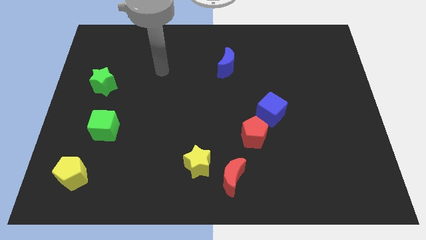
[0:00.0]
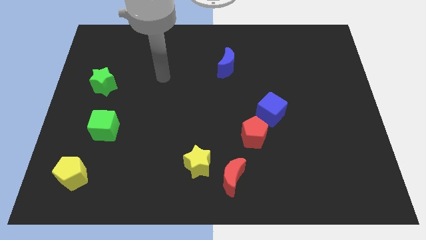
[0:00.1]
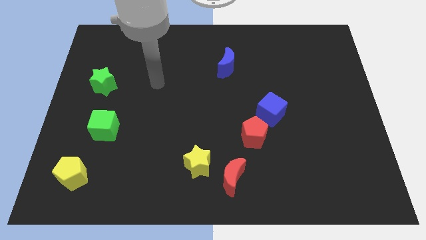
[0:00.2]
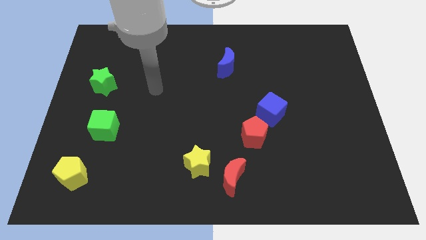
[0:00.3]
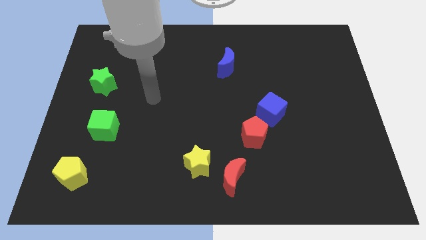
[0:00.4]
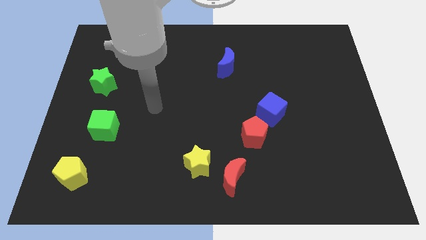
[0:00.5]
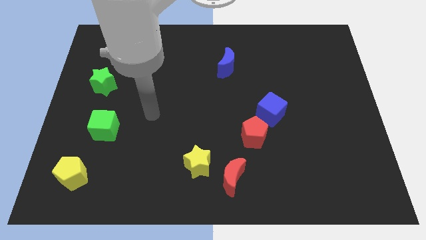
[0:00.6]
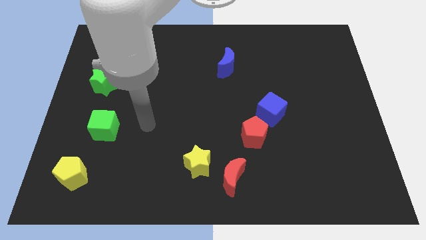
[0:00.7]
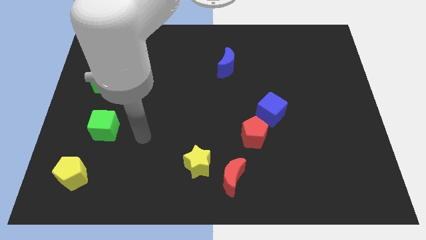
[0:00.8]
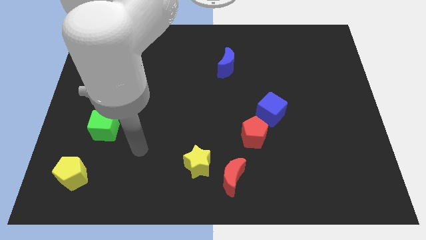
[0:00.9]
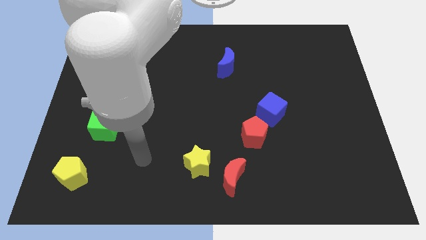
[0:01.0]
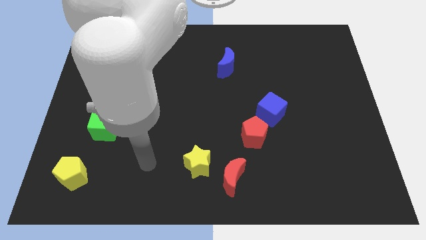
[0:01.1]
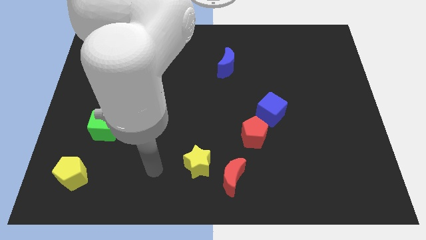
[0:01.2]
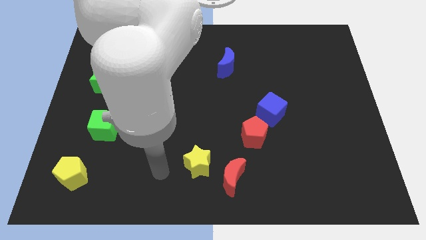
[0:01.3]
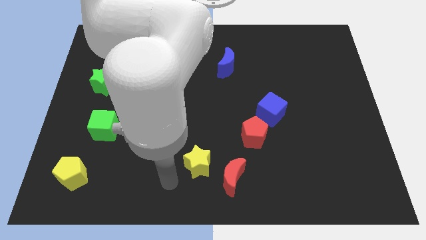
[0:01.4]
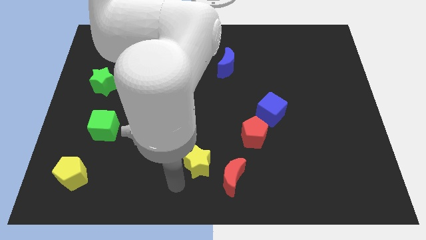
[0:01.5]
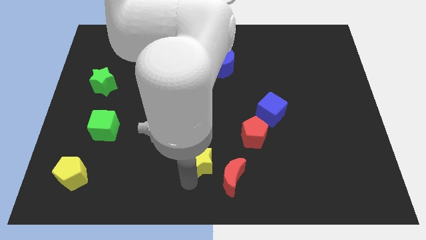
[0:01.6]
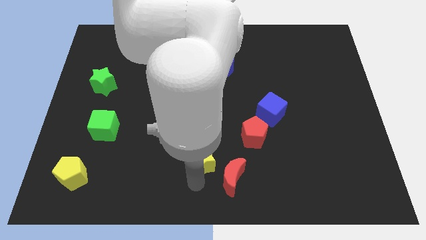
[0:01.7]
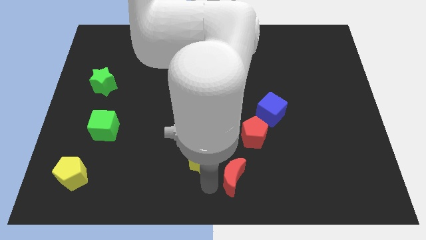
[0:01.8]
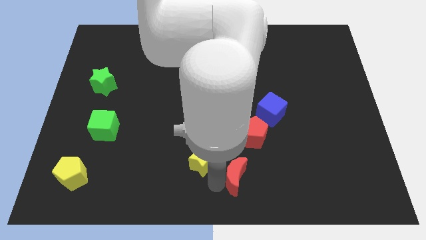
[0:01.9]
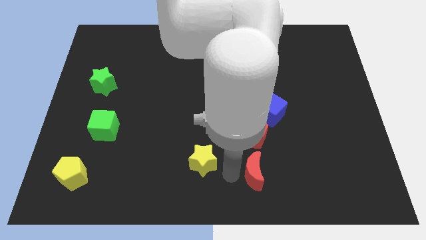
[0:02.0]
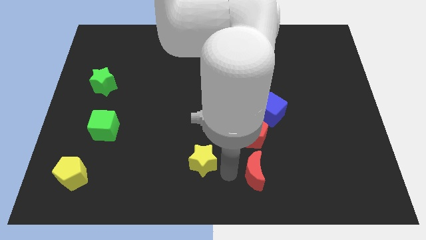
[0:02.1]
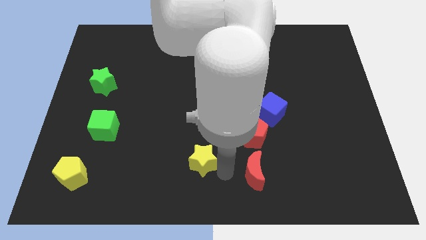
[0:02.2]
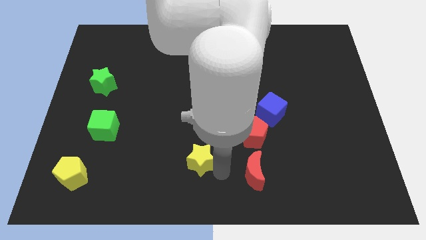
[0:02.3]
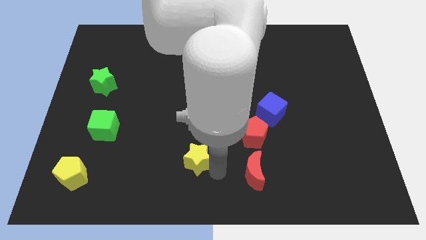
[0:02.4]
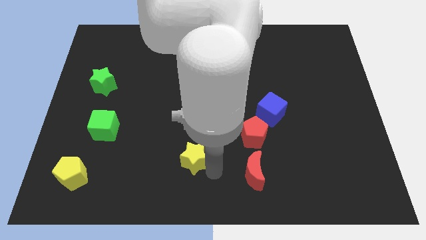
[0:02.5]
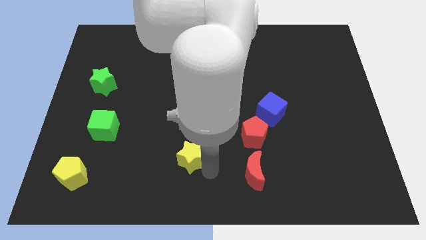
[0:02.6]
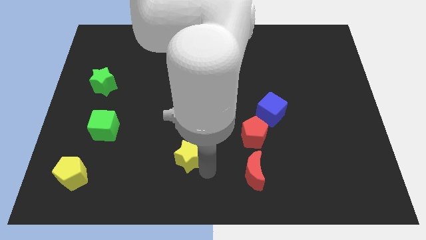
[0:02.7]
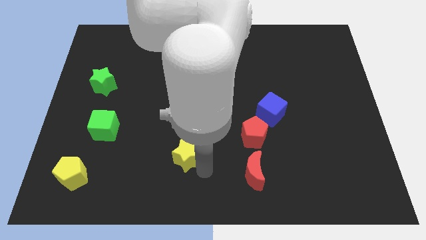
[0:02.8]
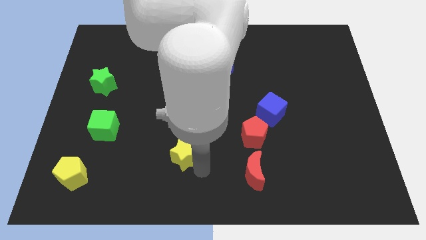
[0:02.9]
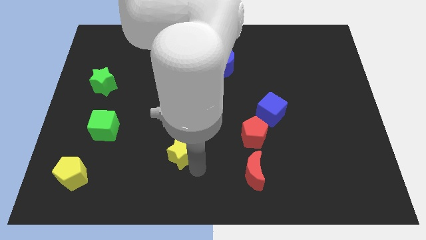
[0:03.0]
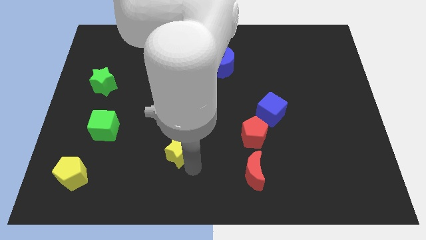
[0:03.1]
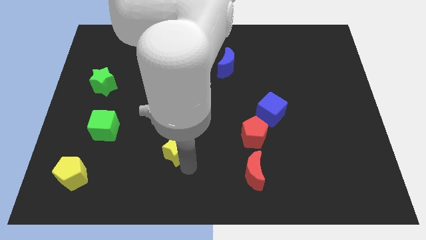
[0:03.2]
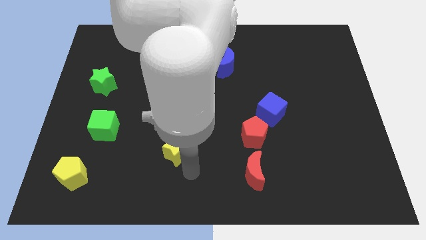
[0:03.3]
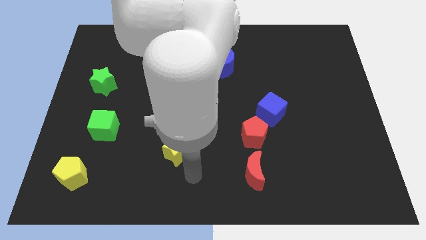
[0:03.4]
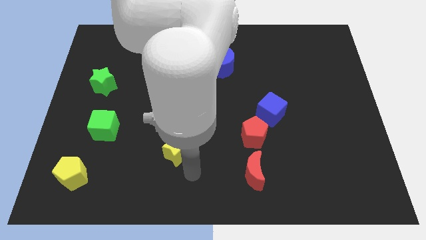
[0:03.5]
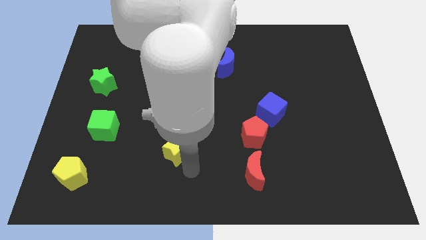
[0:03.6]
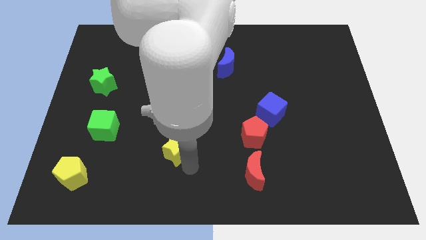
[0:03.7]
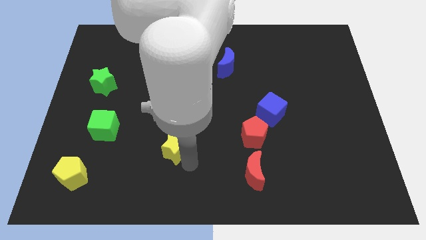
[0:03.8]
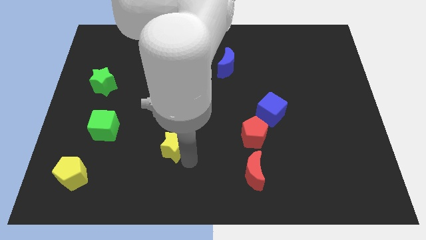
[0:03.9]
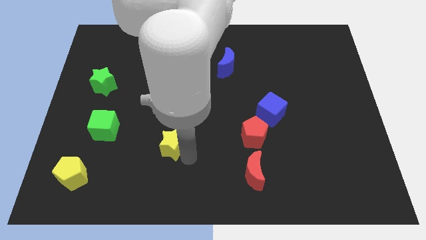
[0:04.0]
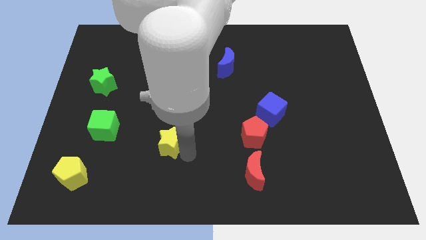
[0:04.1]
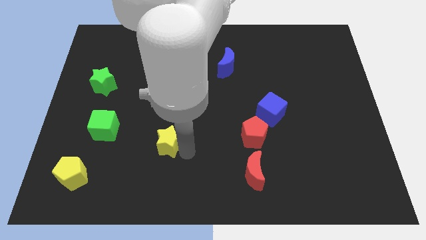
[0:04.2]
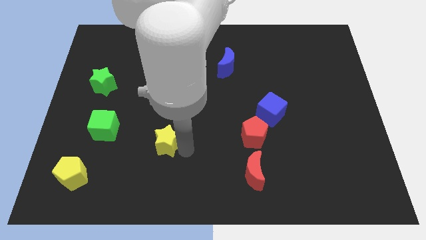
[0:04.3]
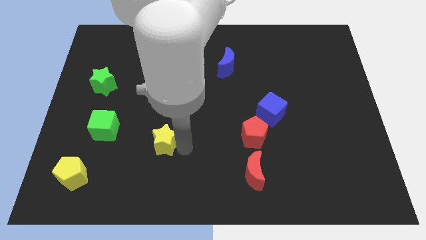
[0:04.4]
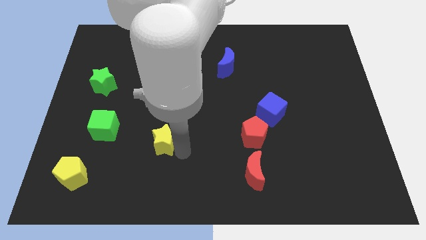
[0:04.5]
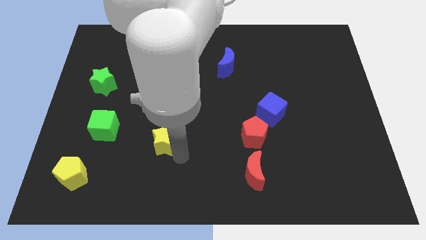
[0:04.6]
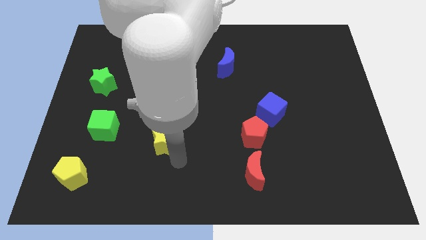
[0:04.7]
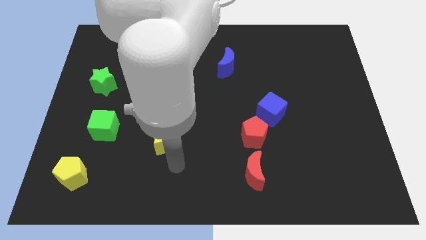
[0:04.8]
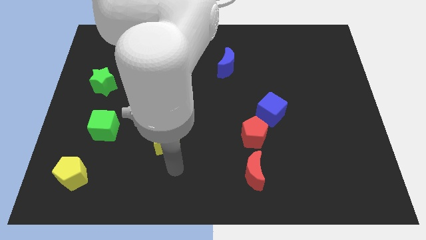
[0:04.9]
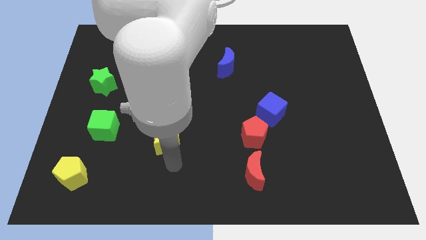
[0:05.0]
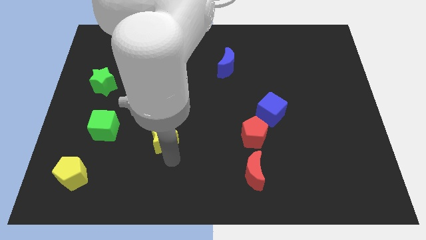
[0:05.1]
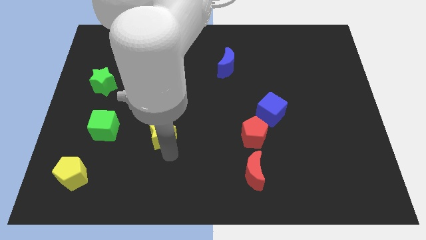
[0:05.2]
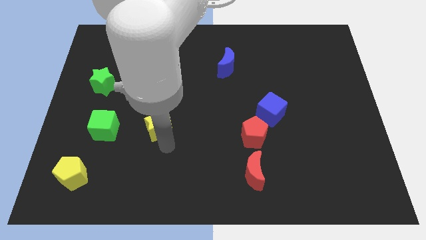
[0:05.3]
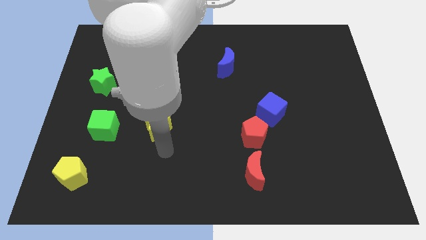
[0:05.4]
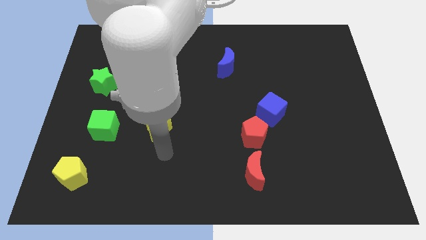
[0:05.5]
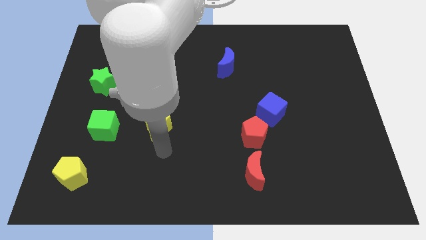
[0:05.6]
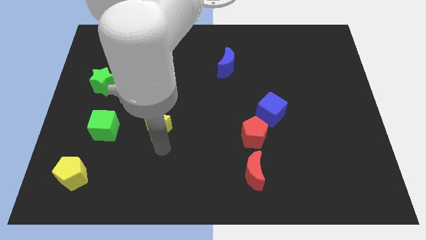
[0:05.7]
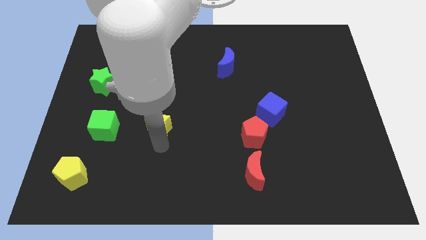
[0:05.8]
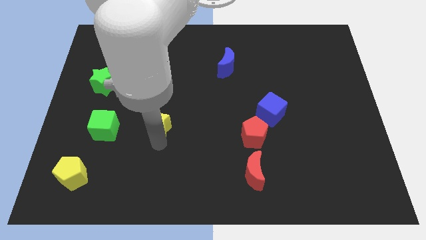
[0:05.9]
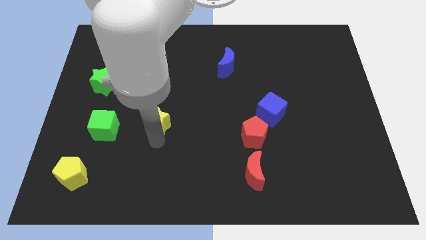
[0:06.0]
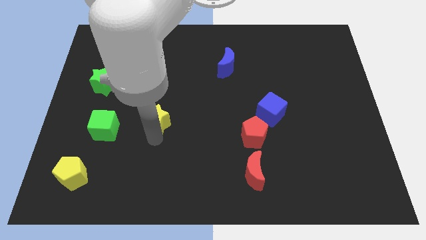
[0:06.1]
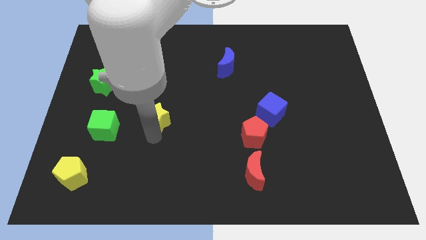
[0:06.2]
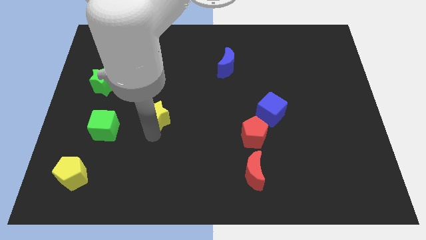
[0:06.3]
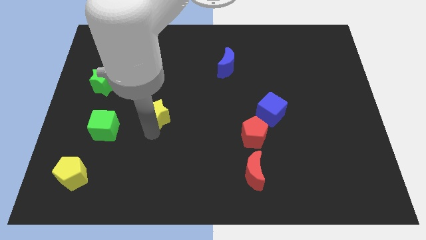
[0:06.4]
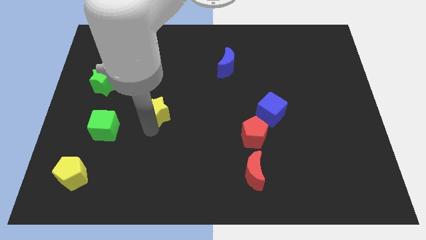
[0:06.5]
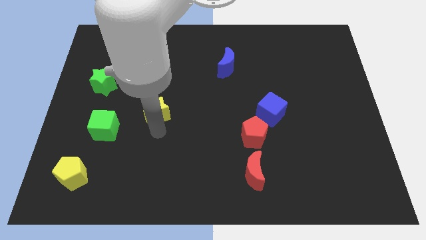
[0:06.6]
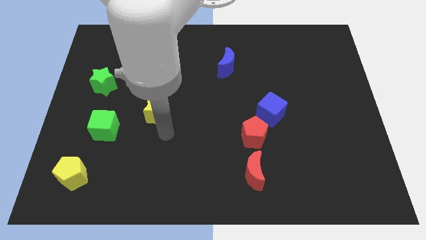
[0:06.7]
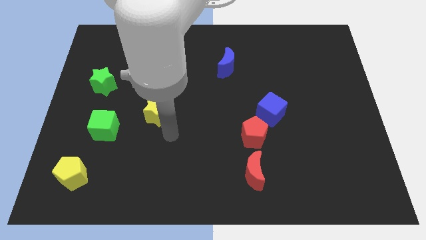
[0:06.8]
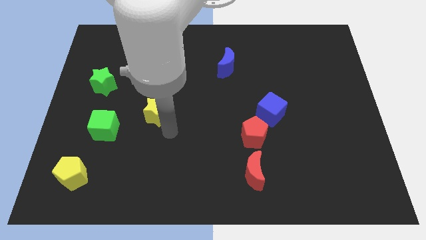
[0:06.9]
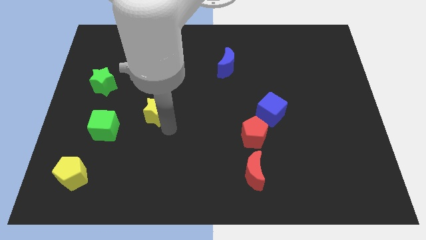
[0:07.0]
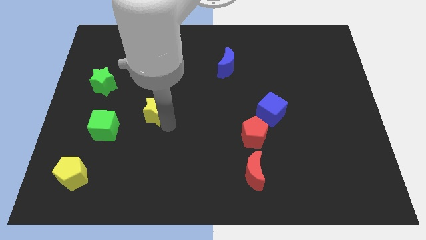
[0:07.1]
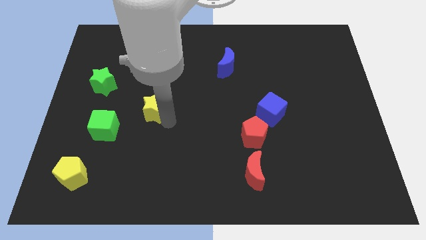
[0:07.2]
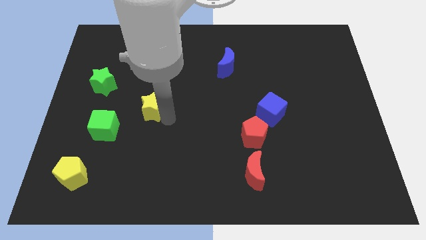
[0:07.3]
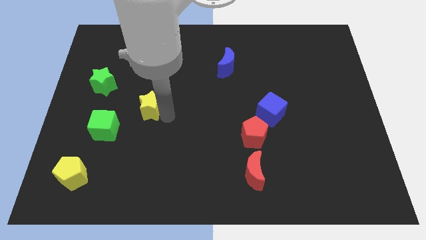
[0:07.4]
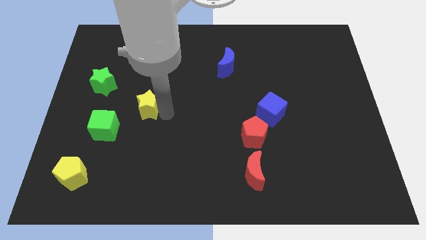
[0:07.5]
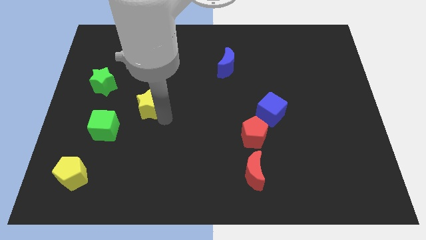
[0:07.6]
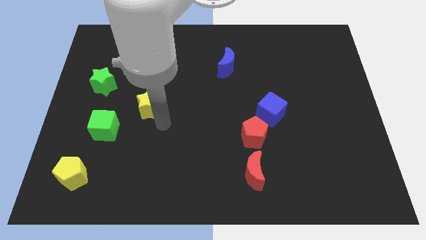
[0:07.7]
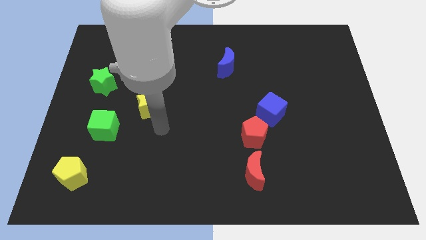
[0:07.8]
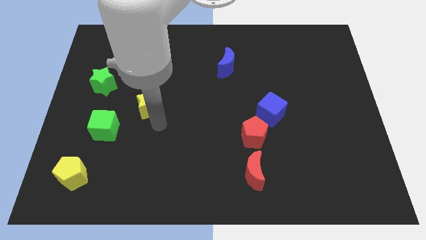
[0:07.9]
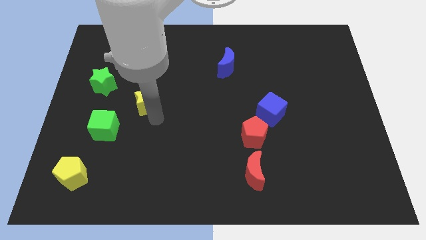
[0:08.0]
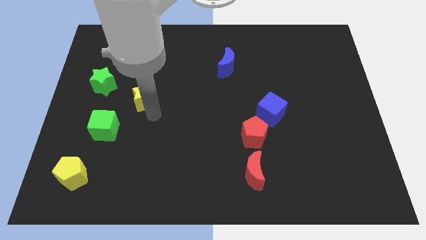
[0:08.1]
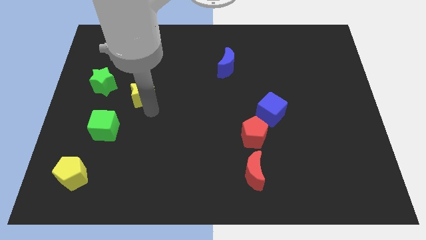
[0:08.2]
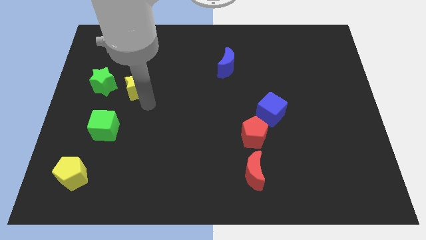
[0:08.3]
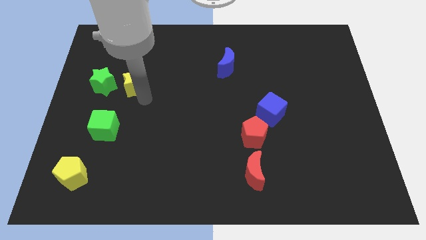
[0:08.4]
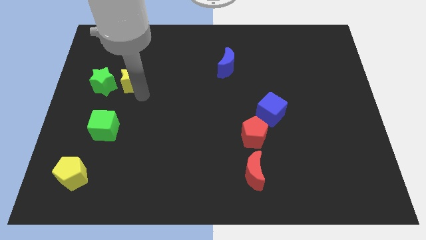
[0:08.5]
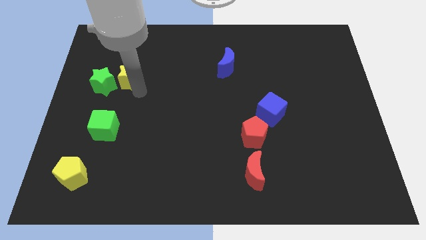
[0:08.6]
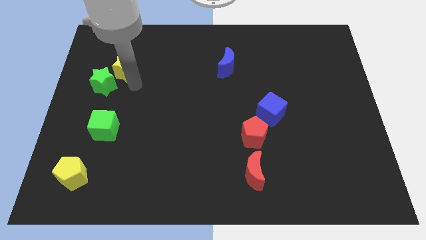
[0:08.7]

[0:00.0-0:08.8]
slide the yellow star to the top side of the green star
